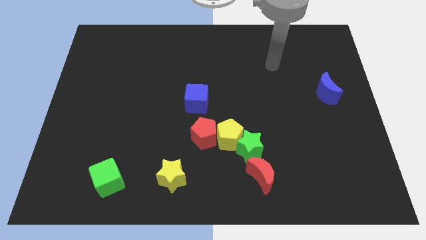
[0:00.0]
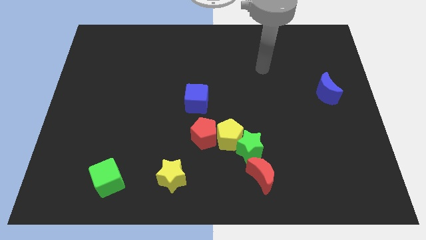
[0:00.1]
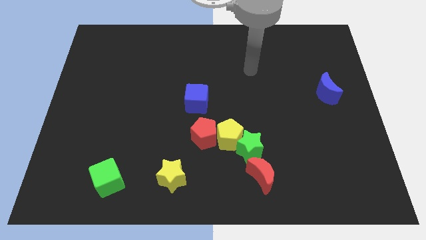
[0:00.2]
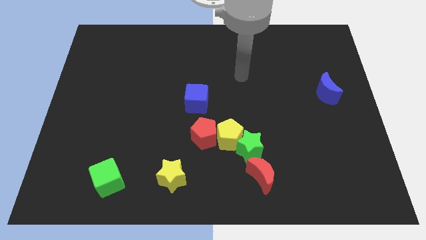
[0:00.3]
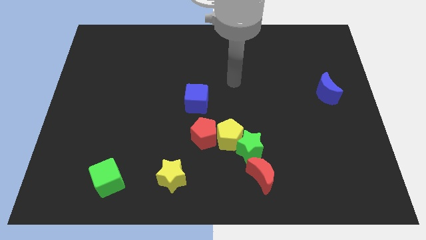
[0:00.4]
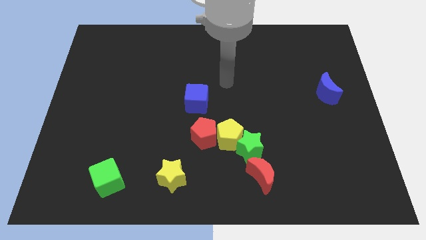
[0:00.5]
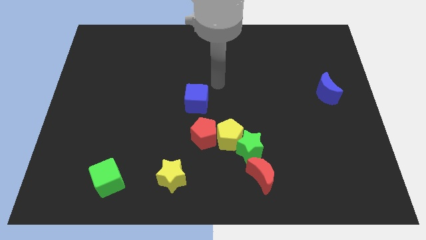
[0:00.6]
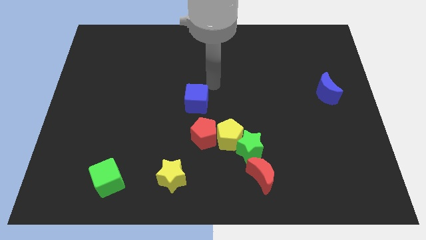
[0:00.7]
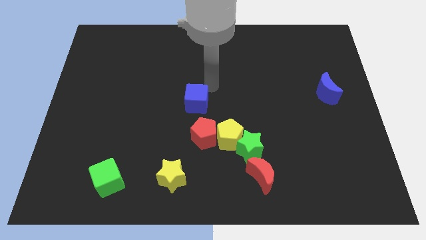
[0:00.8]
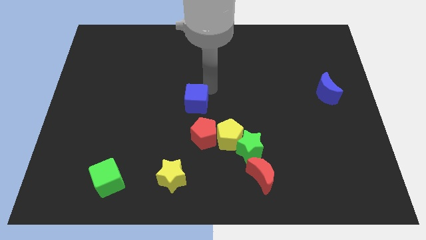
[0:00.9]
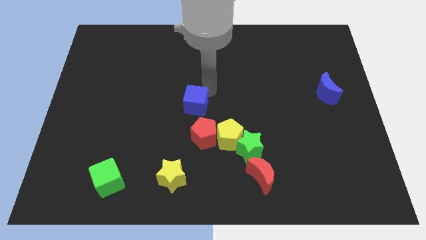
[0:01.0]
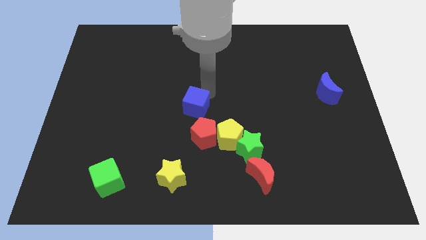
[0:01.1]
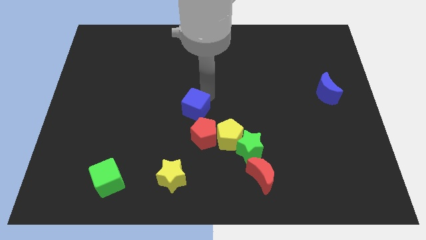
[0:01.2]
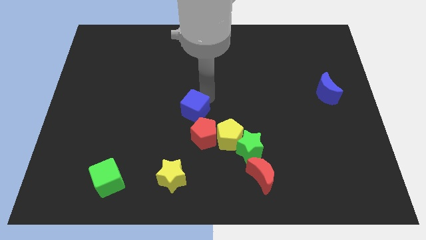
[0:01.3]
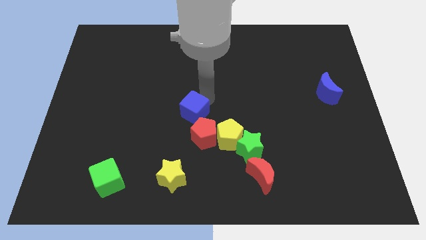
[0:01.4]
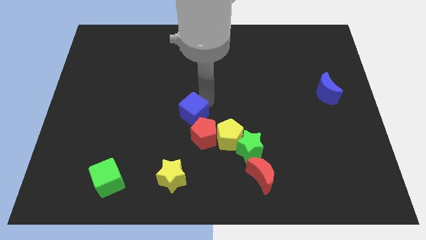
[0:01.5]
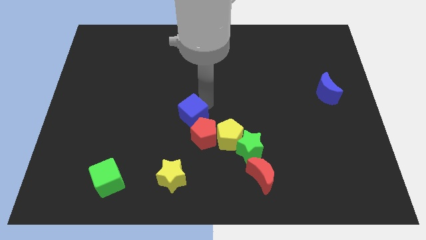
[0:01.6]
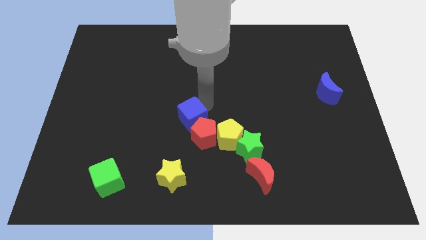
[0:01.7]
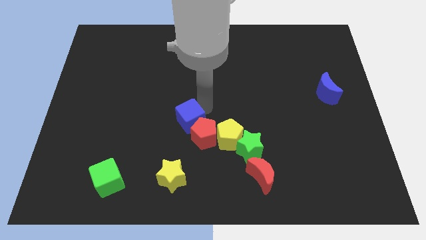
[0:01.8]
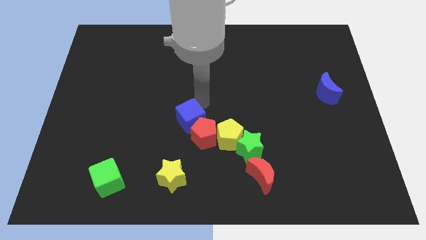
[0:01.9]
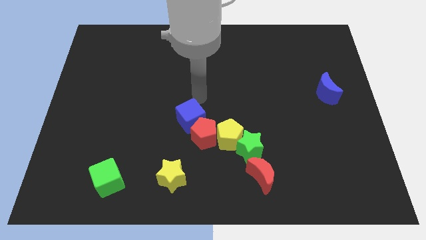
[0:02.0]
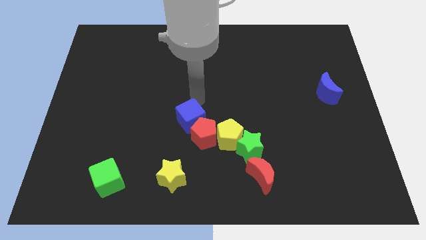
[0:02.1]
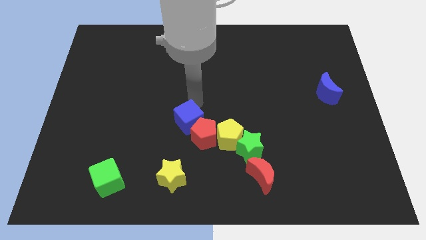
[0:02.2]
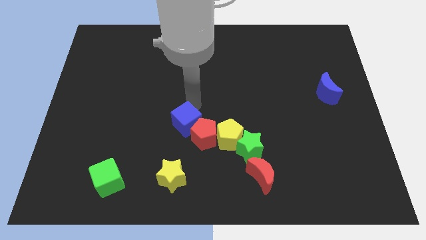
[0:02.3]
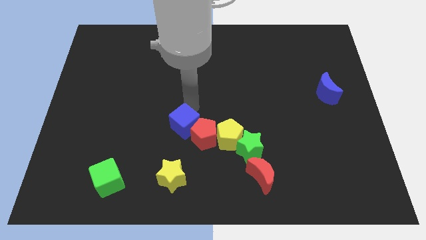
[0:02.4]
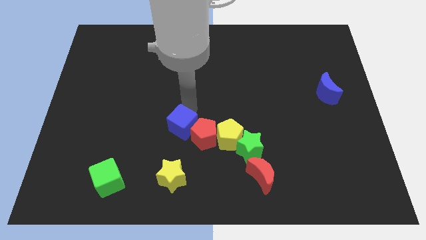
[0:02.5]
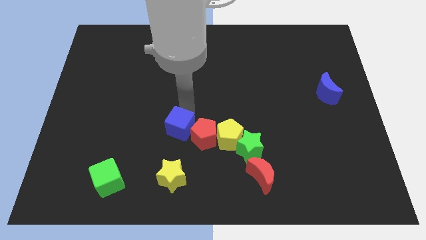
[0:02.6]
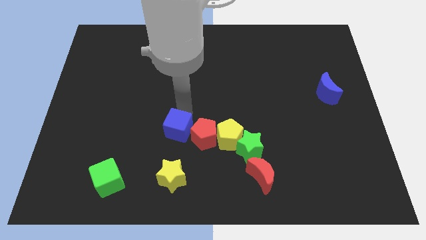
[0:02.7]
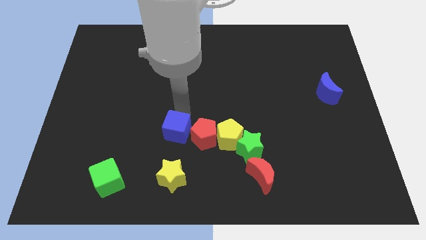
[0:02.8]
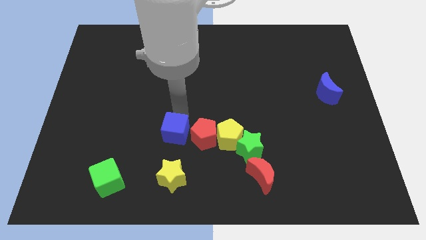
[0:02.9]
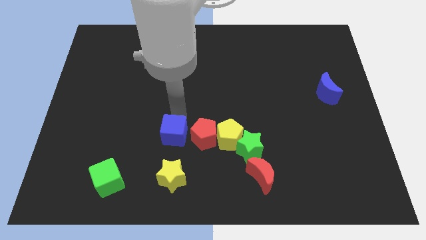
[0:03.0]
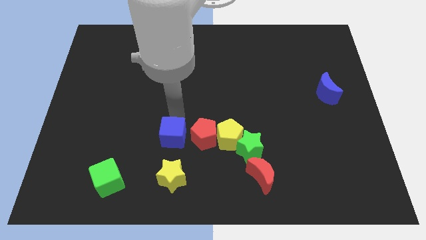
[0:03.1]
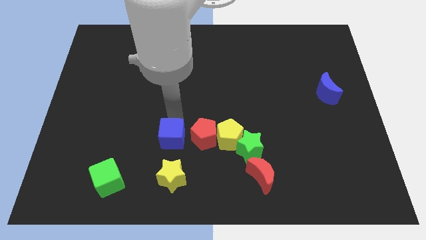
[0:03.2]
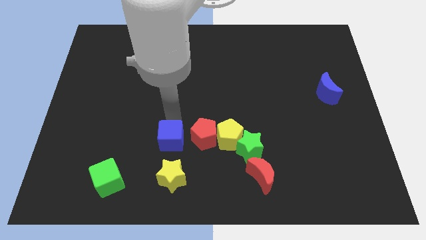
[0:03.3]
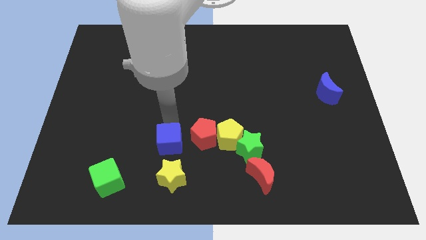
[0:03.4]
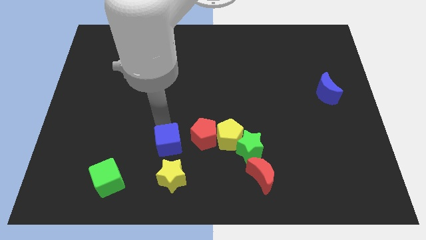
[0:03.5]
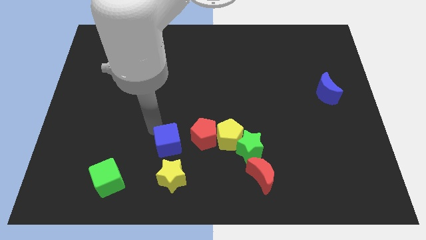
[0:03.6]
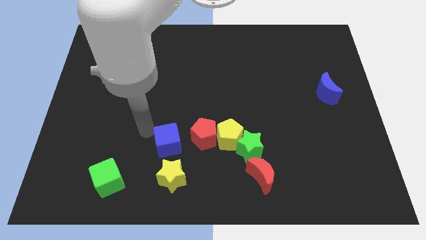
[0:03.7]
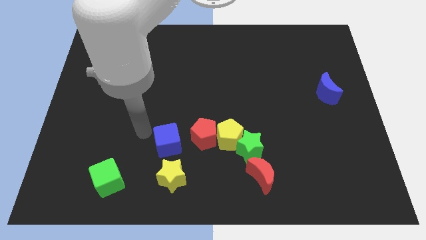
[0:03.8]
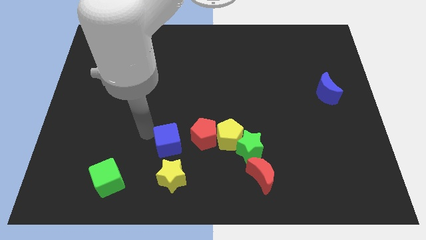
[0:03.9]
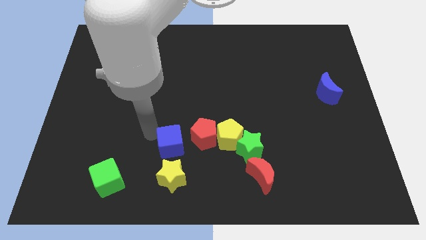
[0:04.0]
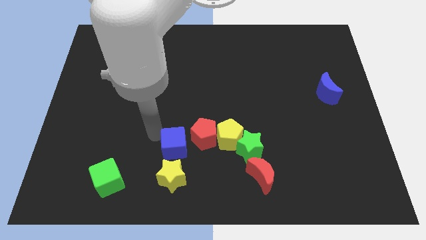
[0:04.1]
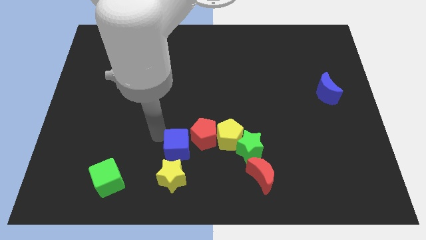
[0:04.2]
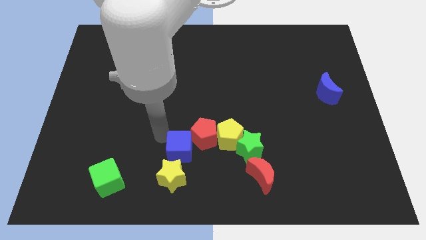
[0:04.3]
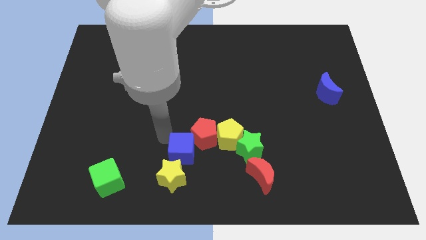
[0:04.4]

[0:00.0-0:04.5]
slide the blue cube to the bottom left of the yellow pentagon

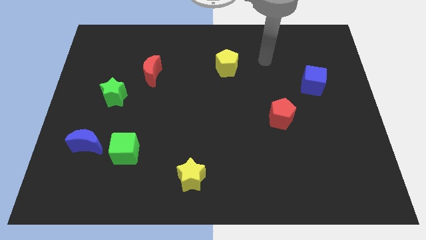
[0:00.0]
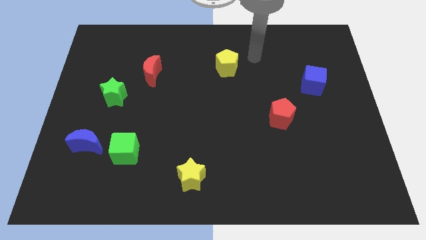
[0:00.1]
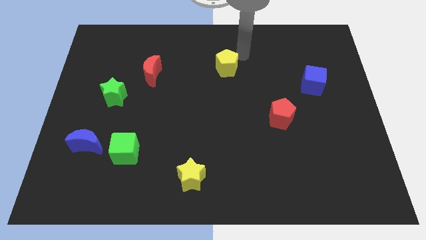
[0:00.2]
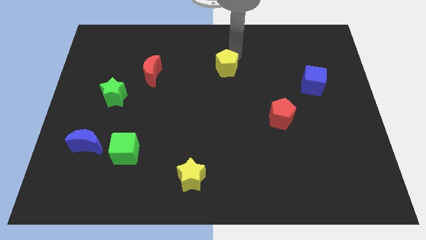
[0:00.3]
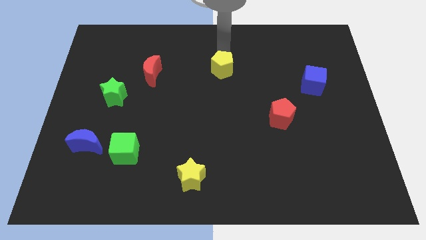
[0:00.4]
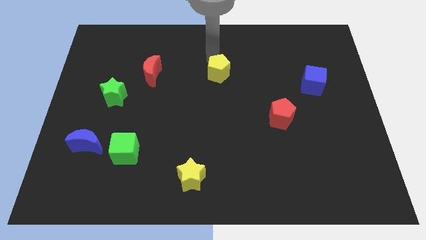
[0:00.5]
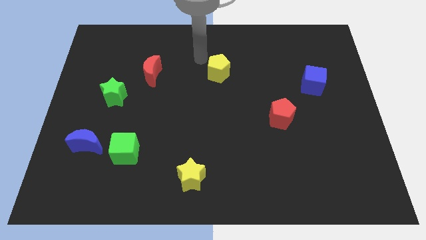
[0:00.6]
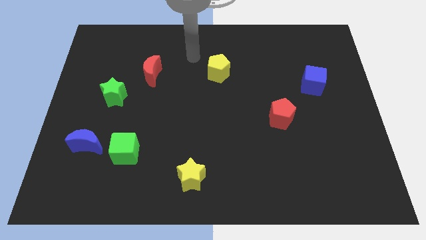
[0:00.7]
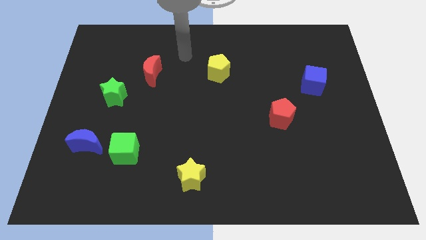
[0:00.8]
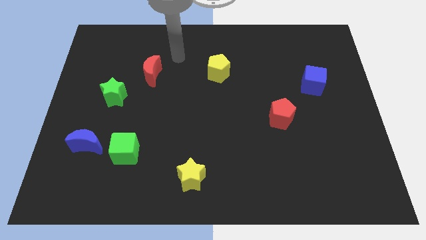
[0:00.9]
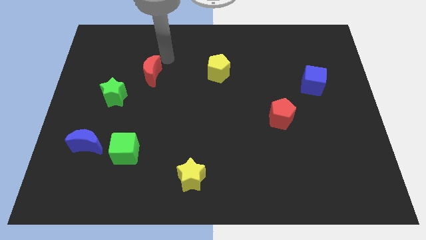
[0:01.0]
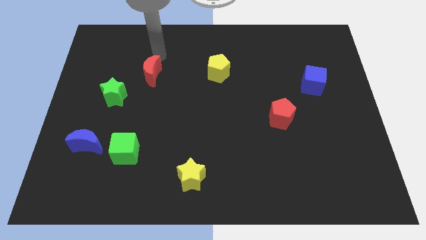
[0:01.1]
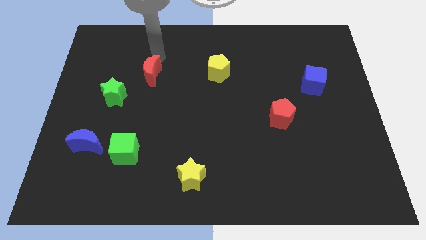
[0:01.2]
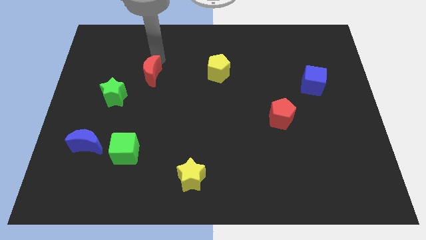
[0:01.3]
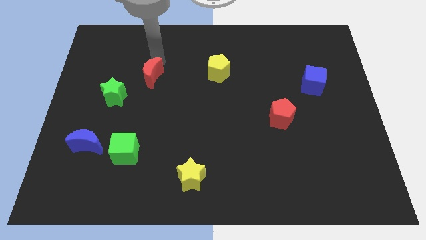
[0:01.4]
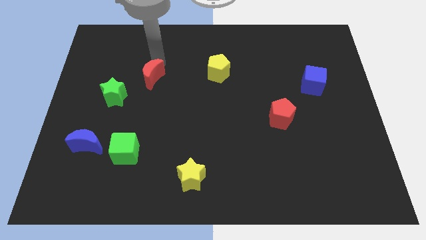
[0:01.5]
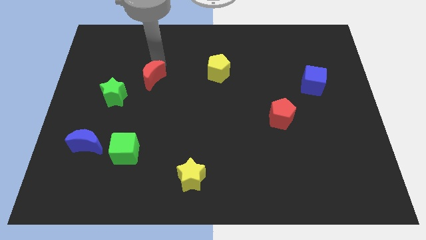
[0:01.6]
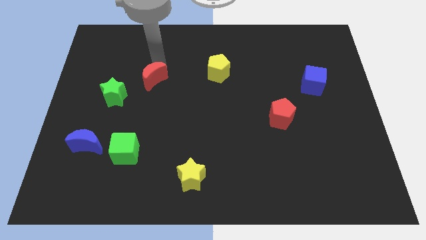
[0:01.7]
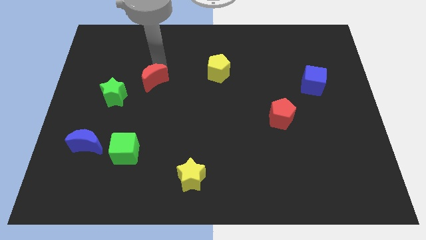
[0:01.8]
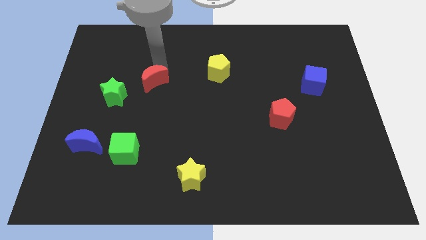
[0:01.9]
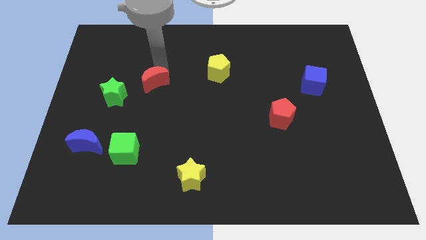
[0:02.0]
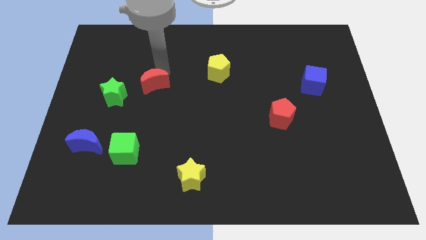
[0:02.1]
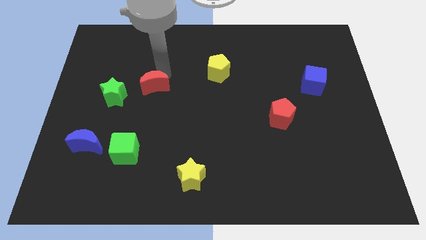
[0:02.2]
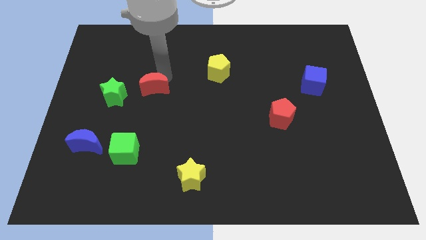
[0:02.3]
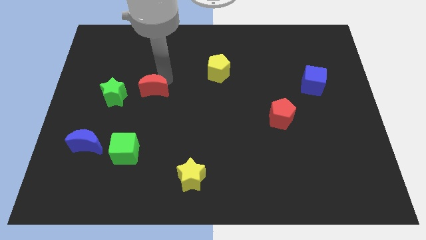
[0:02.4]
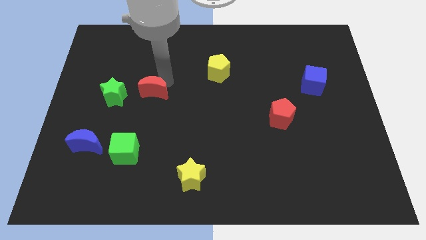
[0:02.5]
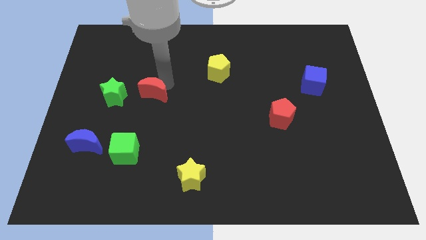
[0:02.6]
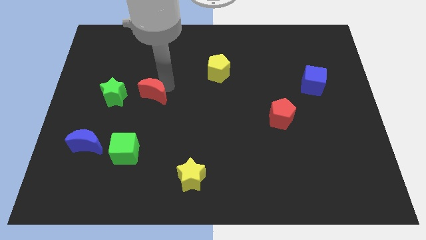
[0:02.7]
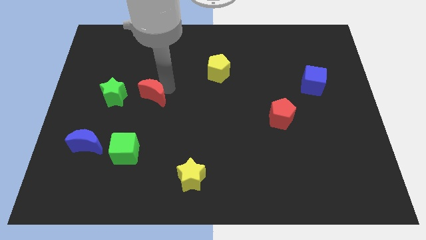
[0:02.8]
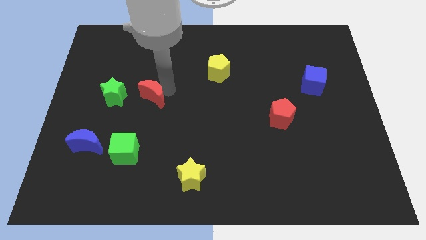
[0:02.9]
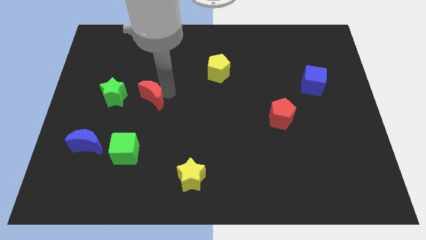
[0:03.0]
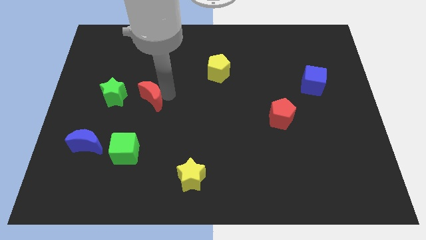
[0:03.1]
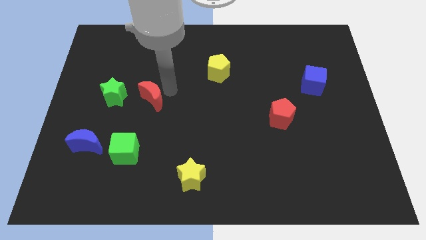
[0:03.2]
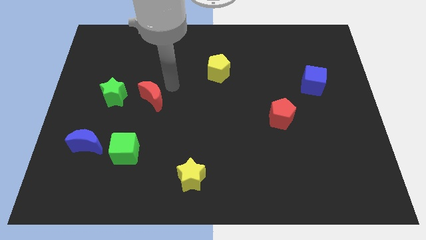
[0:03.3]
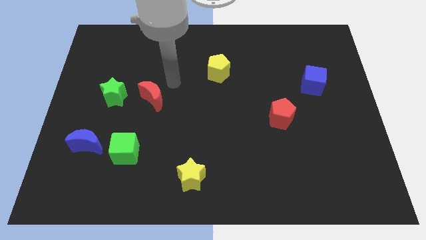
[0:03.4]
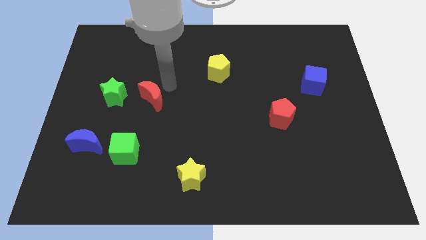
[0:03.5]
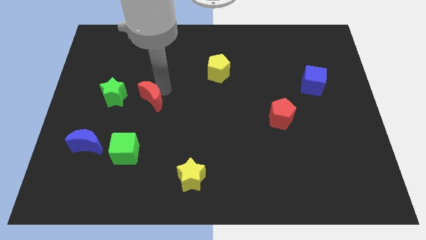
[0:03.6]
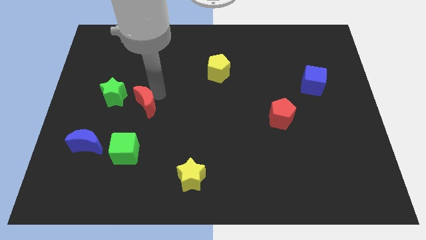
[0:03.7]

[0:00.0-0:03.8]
put the red moon to the bottom right side of the green star
